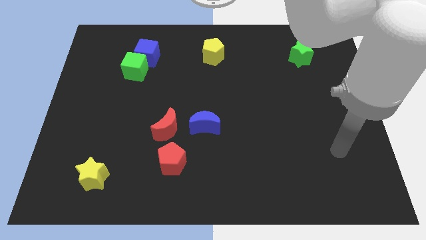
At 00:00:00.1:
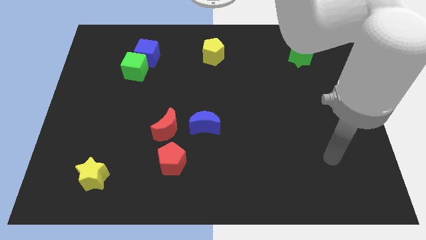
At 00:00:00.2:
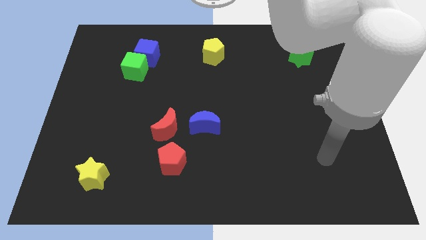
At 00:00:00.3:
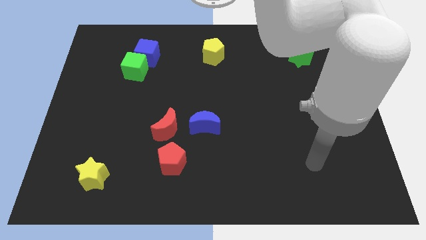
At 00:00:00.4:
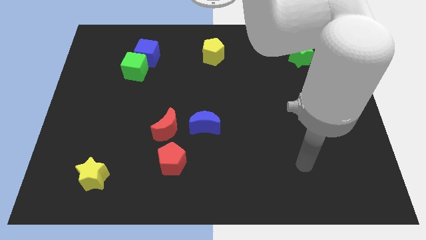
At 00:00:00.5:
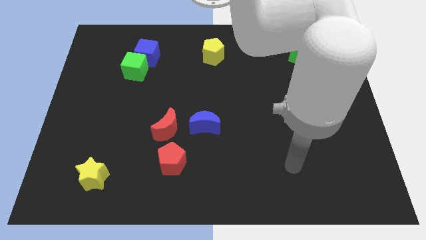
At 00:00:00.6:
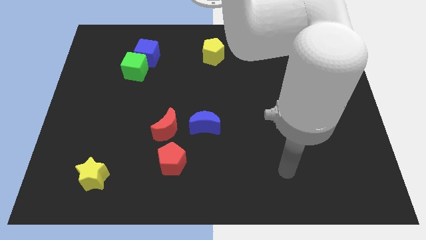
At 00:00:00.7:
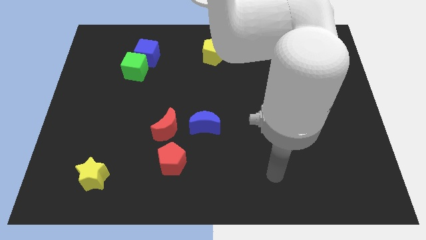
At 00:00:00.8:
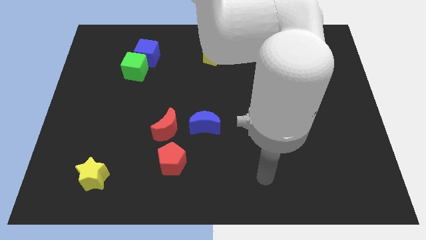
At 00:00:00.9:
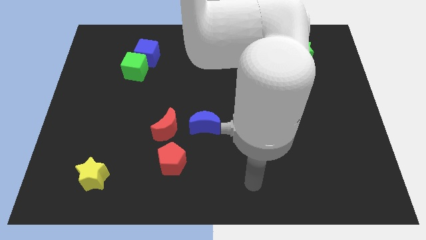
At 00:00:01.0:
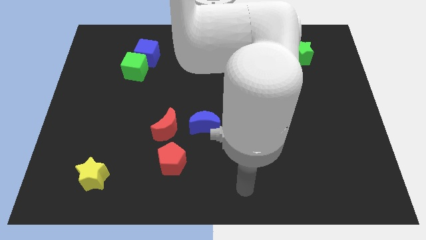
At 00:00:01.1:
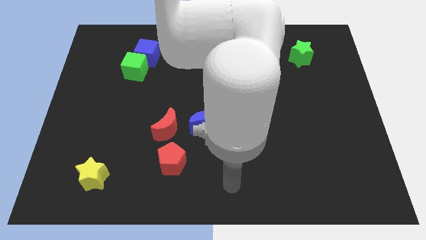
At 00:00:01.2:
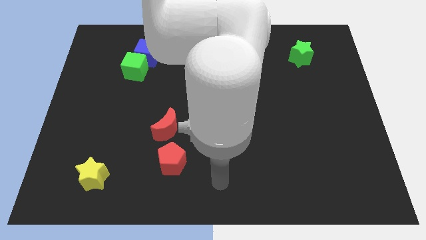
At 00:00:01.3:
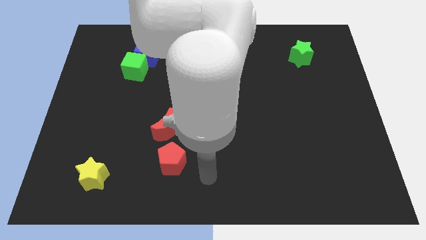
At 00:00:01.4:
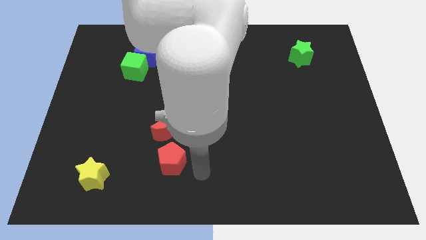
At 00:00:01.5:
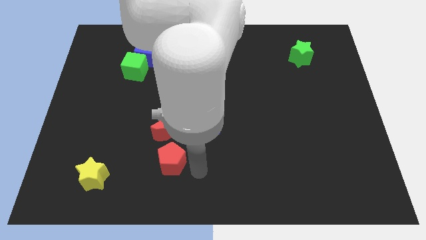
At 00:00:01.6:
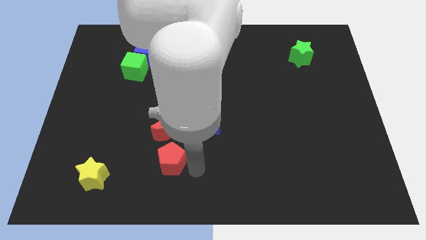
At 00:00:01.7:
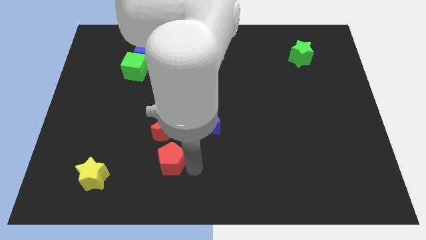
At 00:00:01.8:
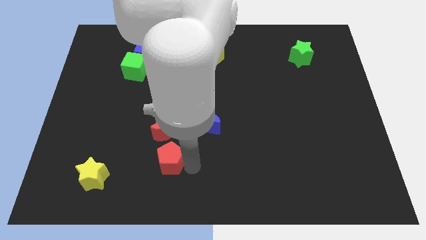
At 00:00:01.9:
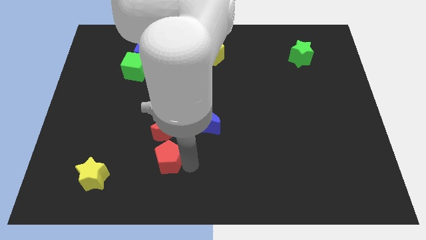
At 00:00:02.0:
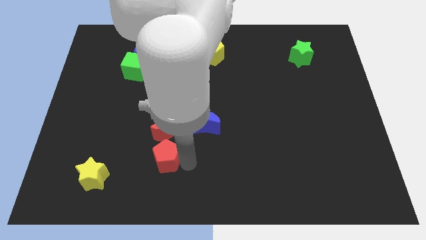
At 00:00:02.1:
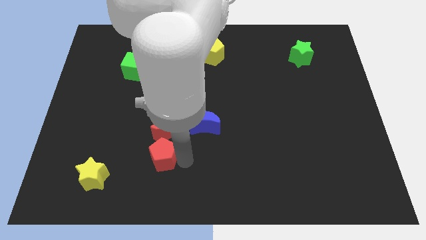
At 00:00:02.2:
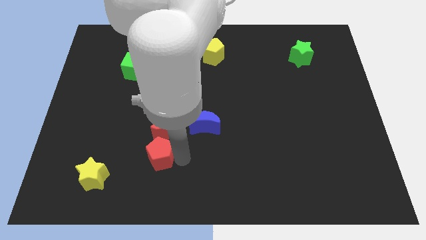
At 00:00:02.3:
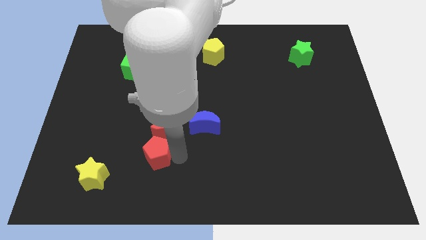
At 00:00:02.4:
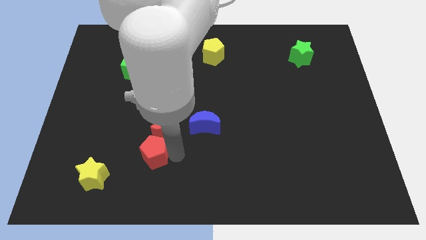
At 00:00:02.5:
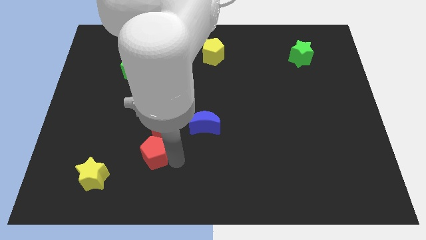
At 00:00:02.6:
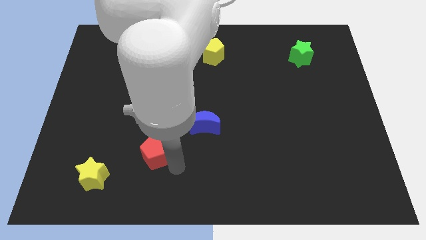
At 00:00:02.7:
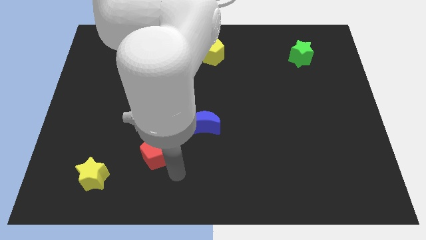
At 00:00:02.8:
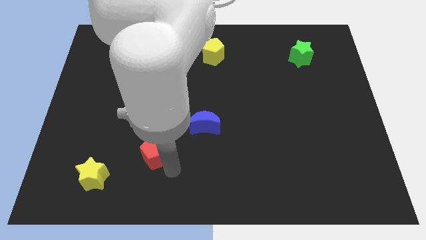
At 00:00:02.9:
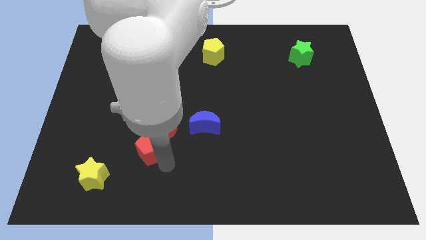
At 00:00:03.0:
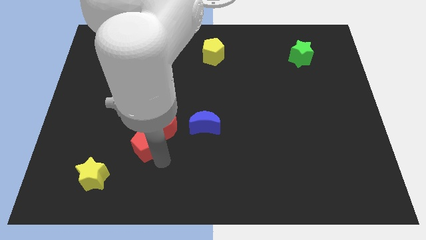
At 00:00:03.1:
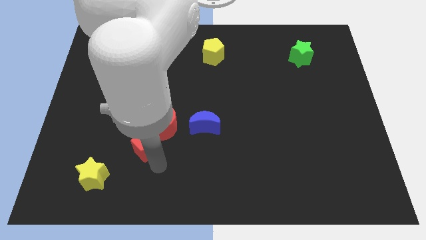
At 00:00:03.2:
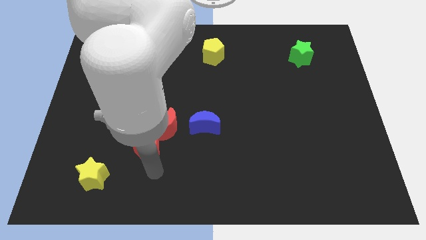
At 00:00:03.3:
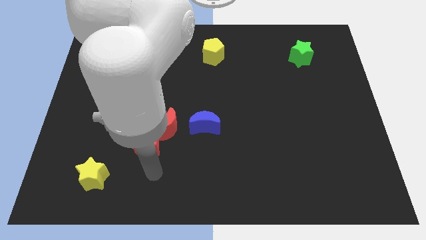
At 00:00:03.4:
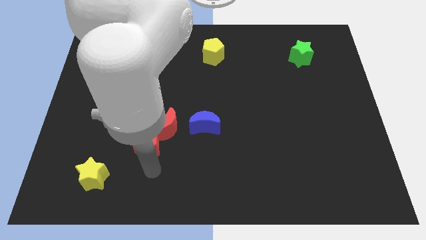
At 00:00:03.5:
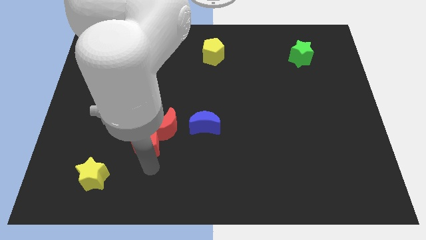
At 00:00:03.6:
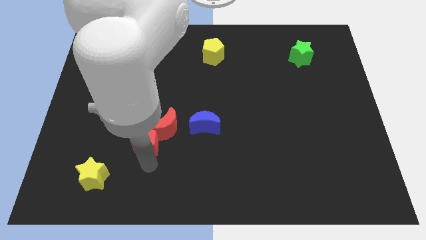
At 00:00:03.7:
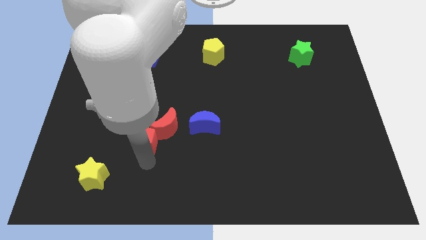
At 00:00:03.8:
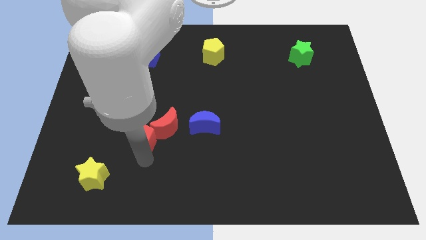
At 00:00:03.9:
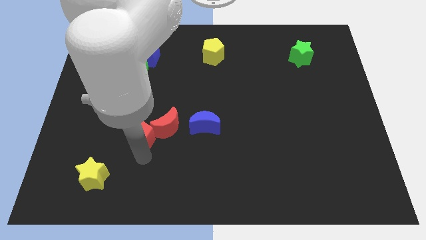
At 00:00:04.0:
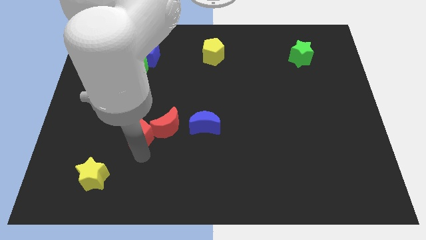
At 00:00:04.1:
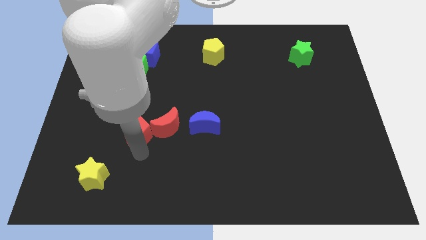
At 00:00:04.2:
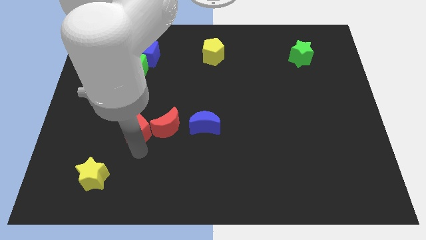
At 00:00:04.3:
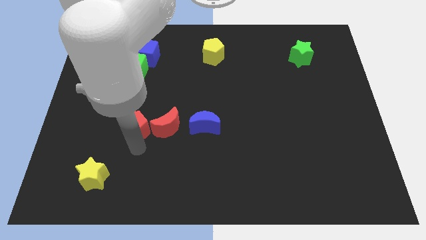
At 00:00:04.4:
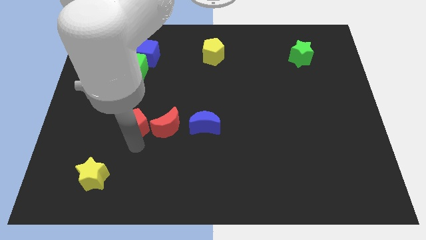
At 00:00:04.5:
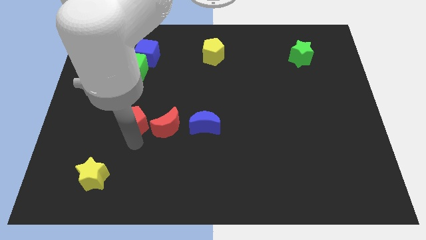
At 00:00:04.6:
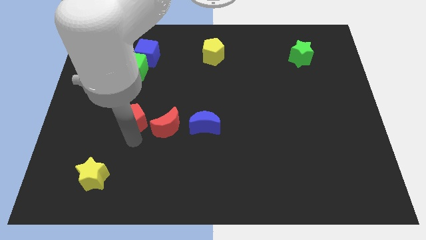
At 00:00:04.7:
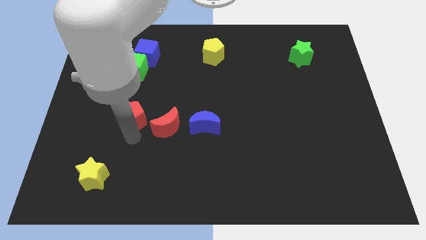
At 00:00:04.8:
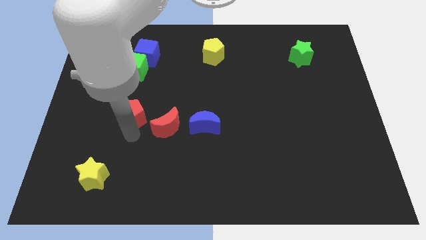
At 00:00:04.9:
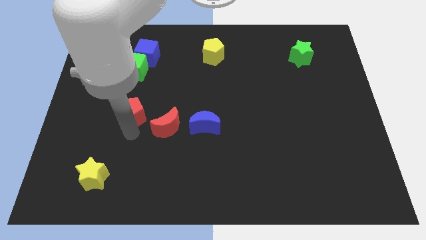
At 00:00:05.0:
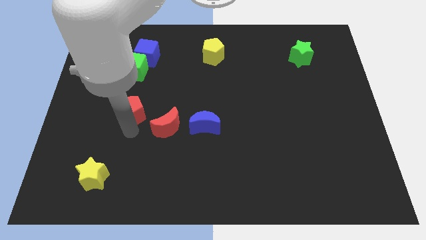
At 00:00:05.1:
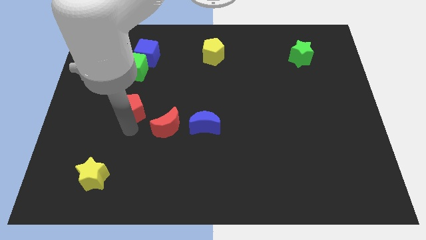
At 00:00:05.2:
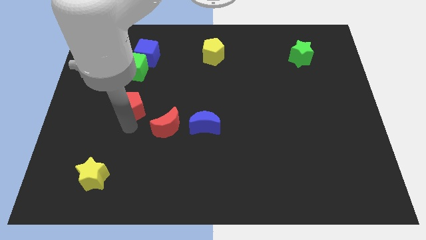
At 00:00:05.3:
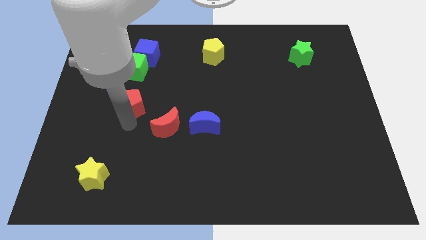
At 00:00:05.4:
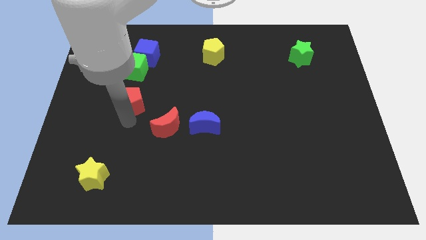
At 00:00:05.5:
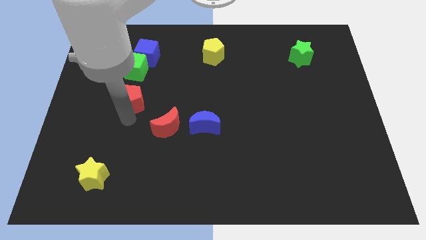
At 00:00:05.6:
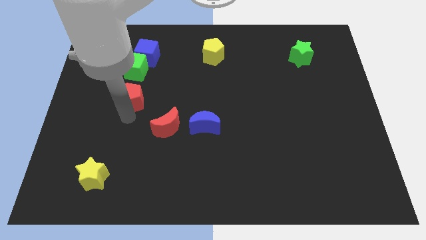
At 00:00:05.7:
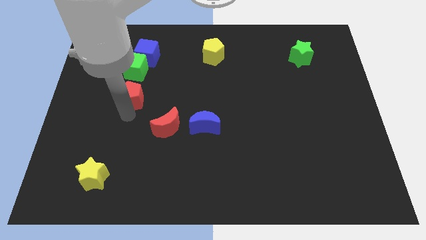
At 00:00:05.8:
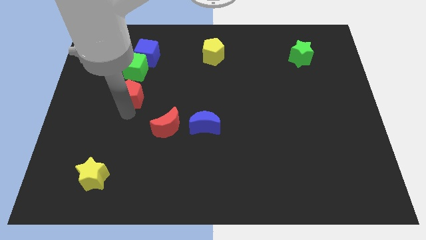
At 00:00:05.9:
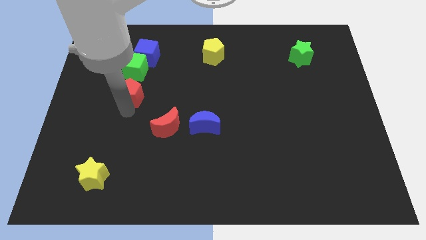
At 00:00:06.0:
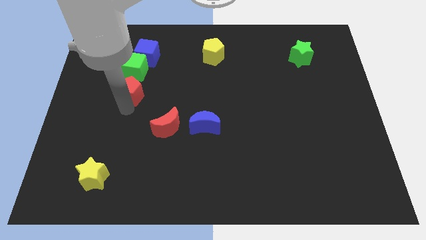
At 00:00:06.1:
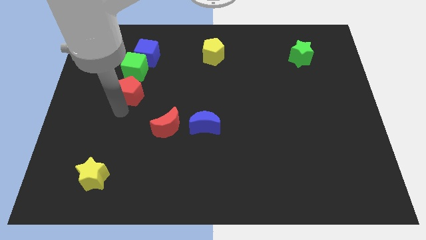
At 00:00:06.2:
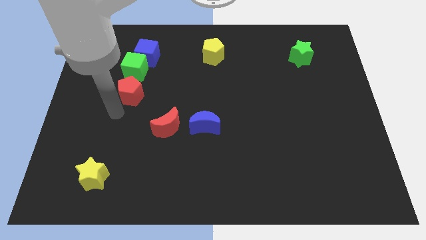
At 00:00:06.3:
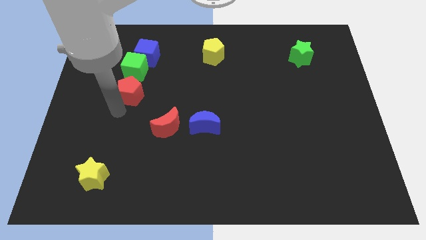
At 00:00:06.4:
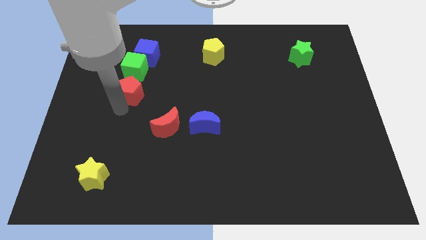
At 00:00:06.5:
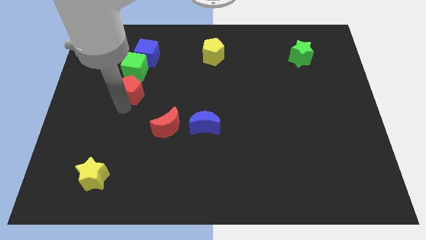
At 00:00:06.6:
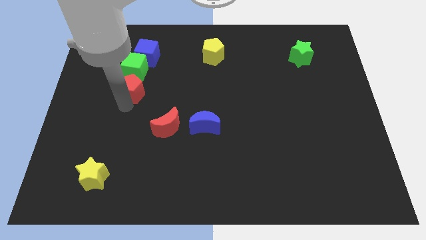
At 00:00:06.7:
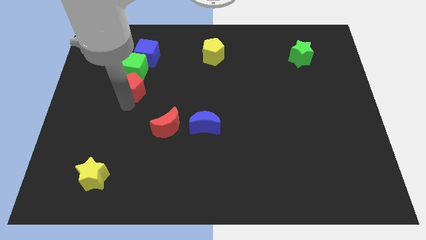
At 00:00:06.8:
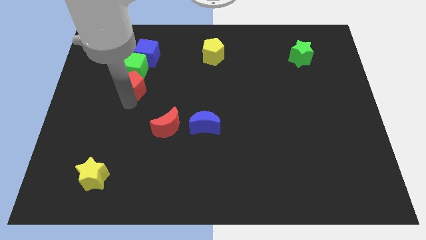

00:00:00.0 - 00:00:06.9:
push the red pentagon close to the green cube

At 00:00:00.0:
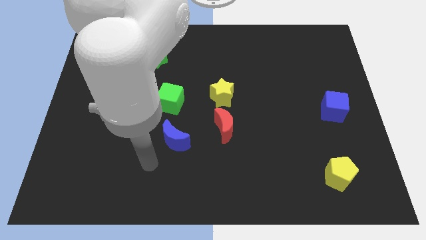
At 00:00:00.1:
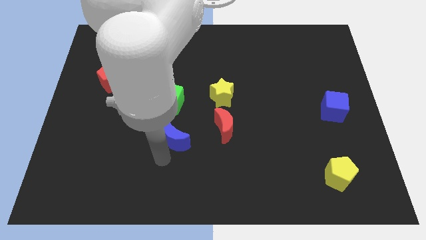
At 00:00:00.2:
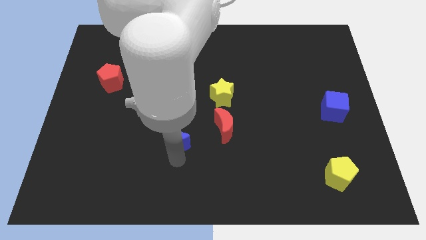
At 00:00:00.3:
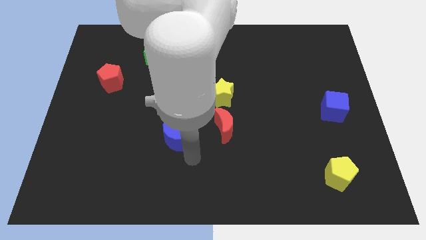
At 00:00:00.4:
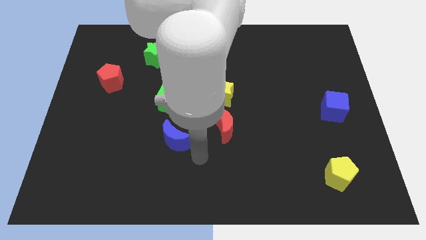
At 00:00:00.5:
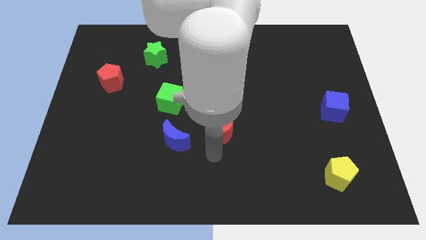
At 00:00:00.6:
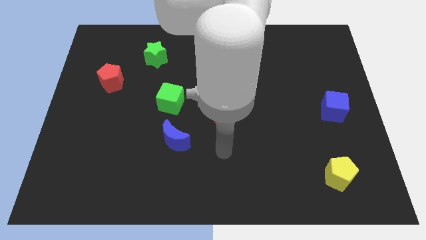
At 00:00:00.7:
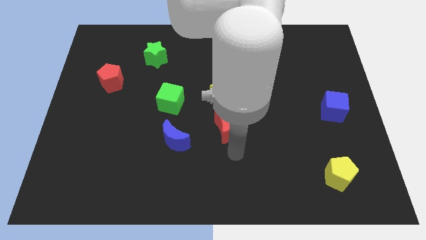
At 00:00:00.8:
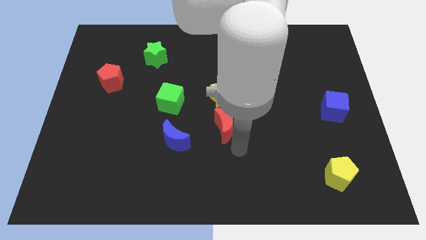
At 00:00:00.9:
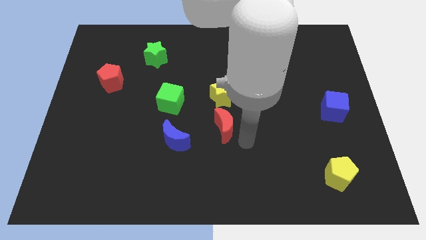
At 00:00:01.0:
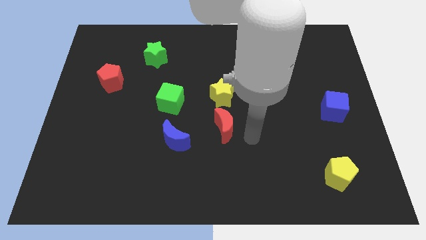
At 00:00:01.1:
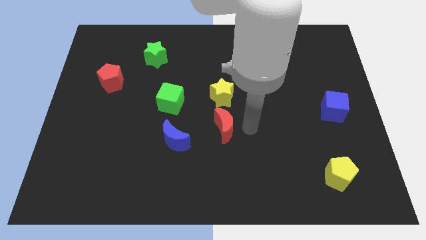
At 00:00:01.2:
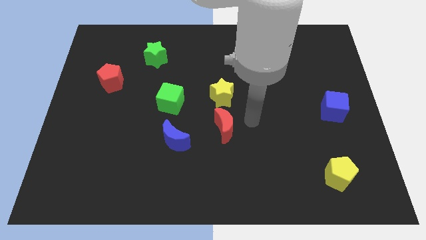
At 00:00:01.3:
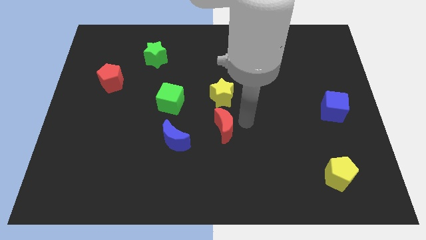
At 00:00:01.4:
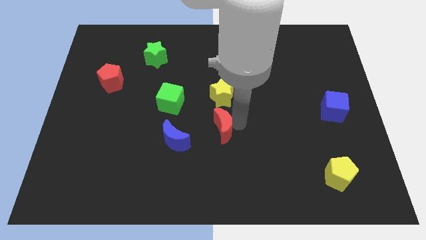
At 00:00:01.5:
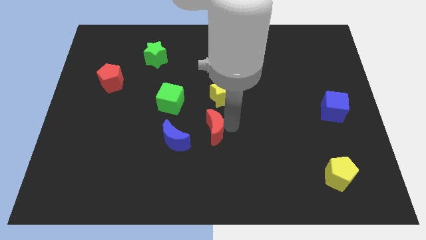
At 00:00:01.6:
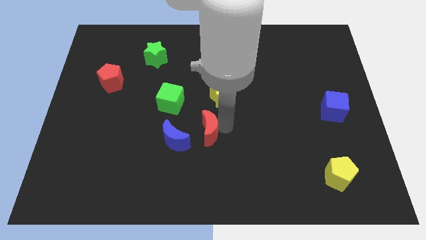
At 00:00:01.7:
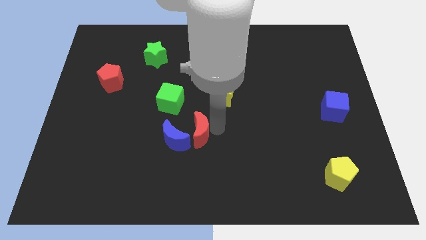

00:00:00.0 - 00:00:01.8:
slide the red moon next to the blue moon
